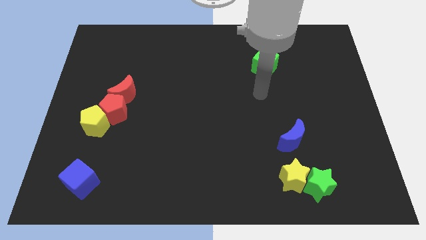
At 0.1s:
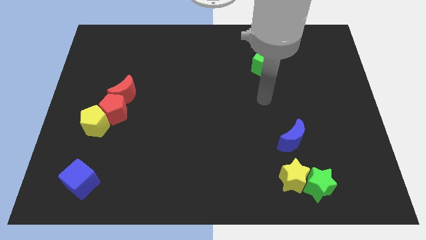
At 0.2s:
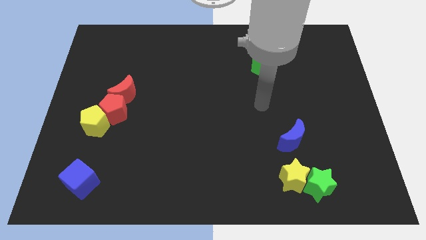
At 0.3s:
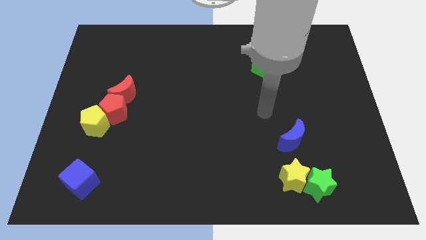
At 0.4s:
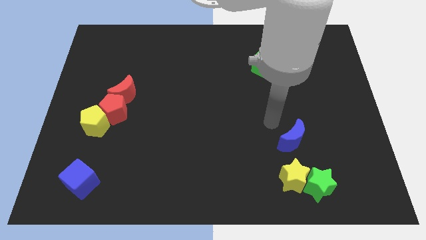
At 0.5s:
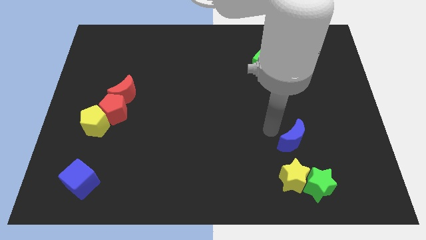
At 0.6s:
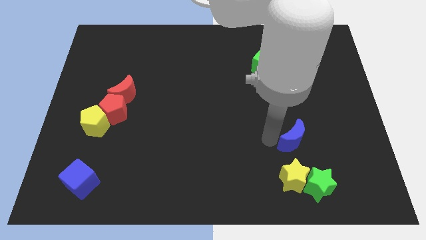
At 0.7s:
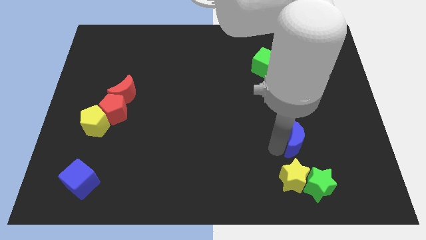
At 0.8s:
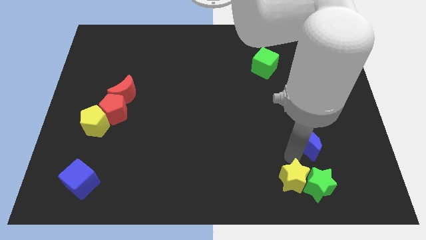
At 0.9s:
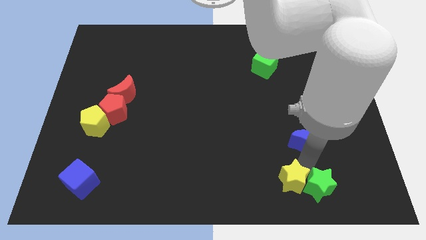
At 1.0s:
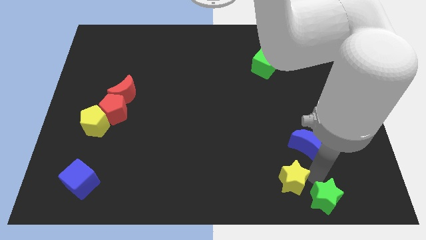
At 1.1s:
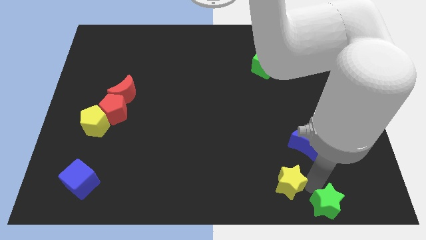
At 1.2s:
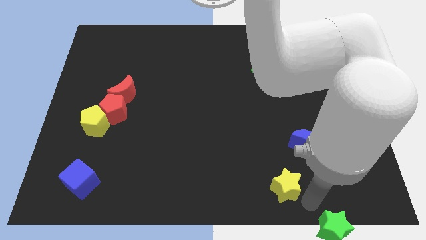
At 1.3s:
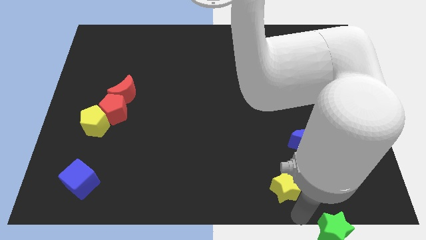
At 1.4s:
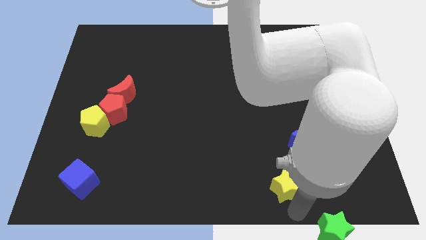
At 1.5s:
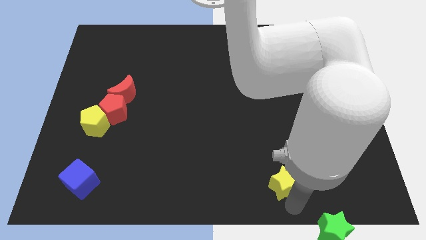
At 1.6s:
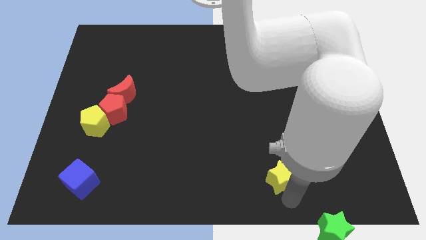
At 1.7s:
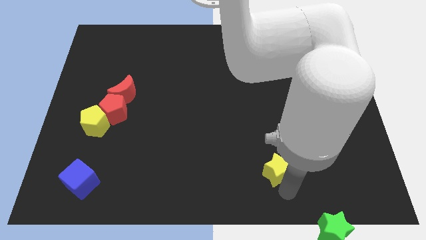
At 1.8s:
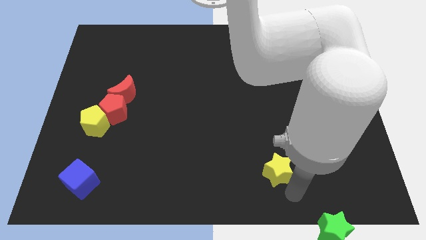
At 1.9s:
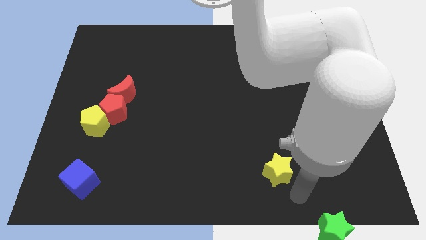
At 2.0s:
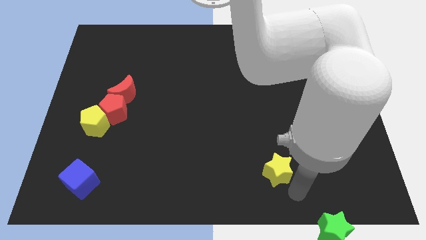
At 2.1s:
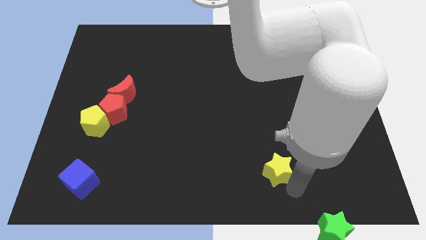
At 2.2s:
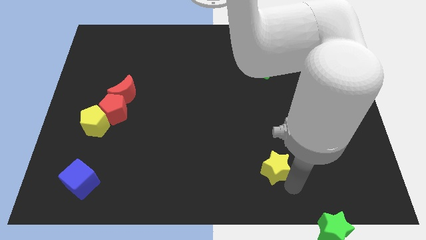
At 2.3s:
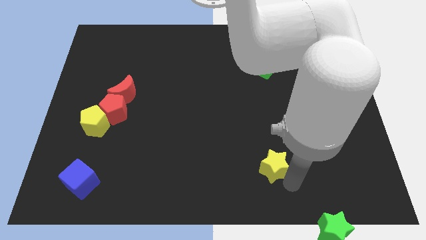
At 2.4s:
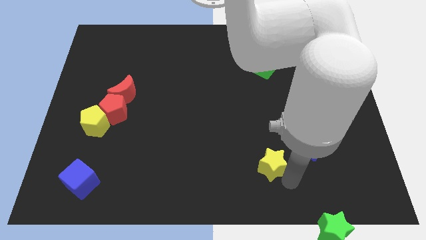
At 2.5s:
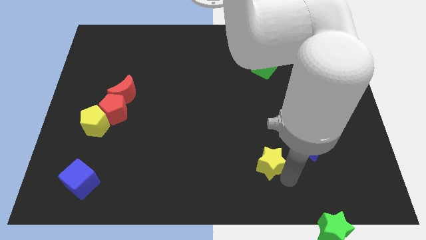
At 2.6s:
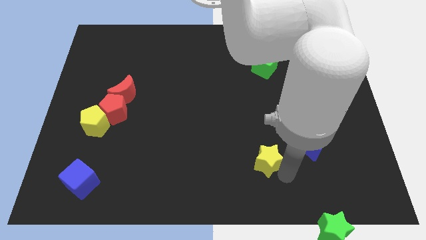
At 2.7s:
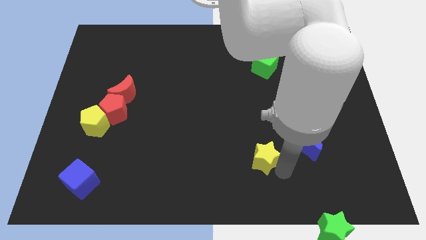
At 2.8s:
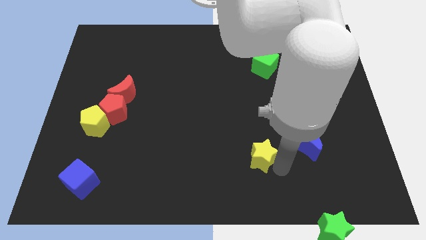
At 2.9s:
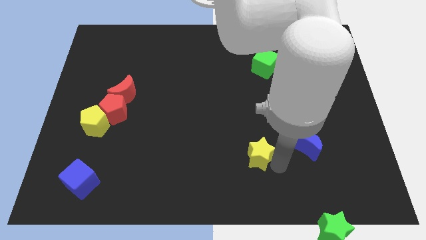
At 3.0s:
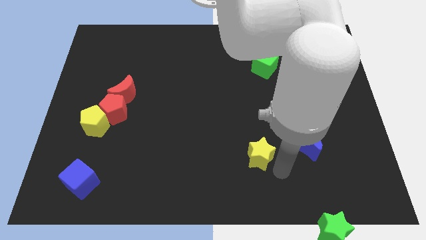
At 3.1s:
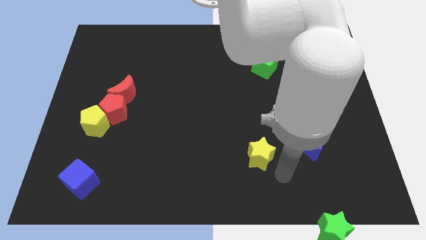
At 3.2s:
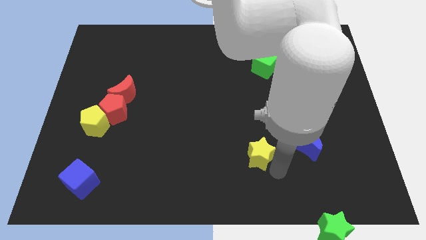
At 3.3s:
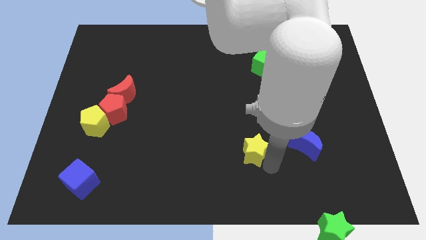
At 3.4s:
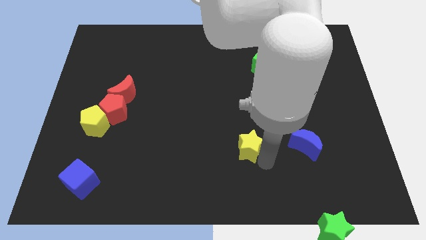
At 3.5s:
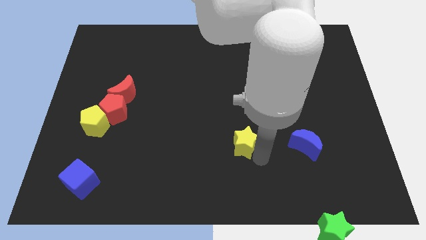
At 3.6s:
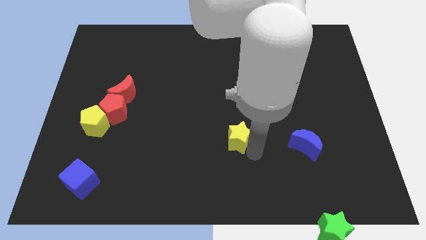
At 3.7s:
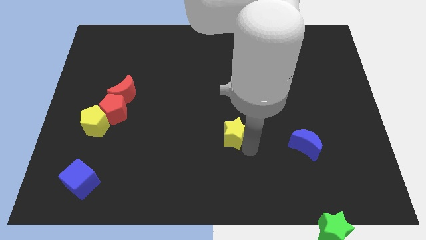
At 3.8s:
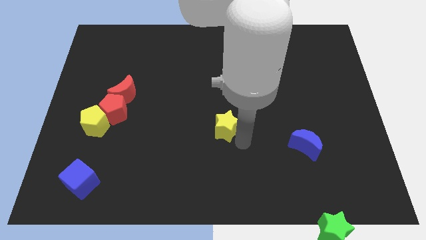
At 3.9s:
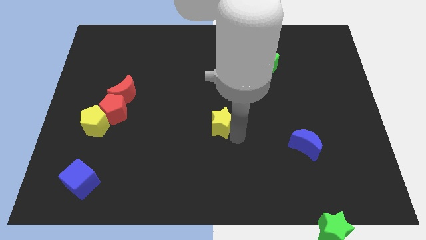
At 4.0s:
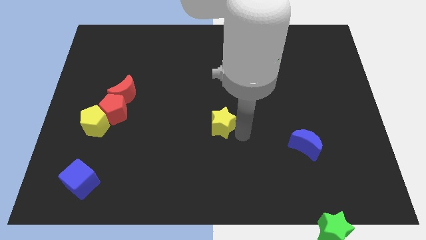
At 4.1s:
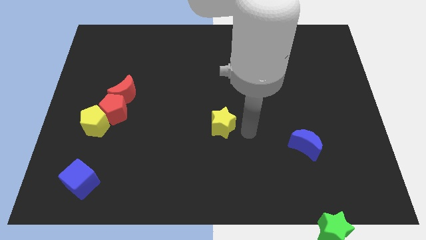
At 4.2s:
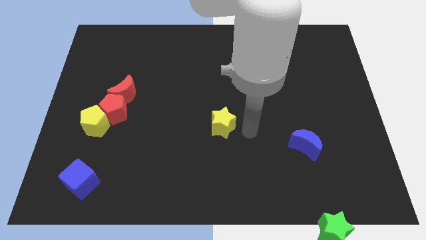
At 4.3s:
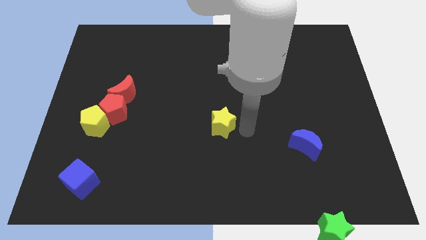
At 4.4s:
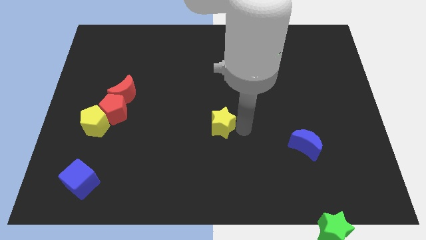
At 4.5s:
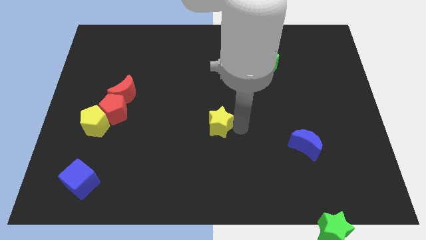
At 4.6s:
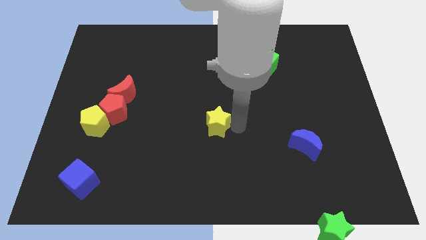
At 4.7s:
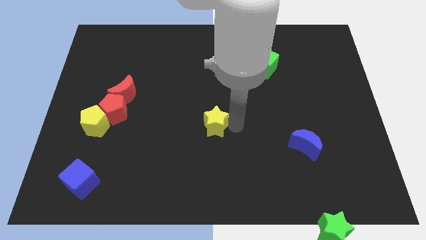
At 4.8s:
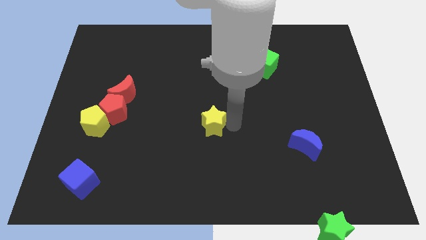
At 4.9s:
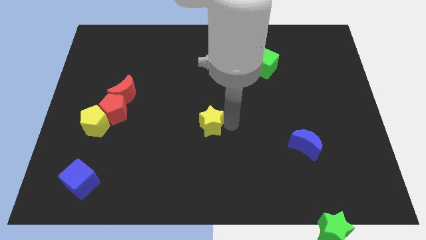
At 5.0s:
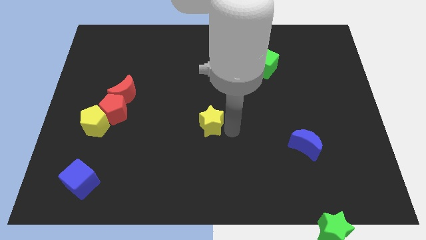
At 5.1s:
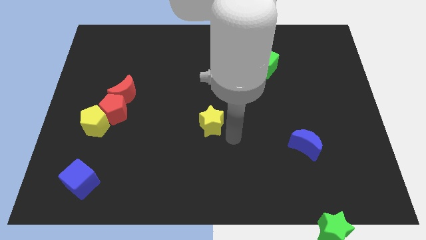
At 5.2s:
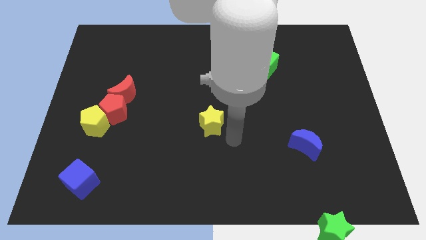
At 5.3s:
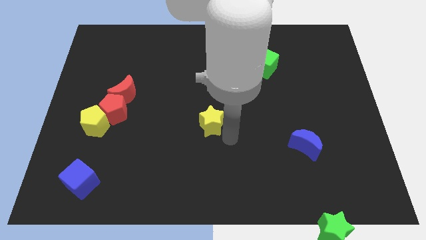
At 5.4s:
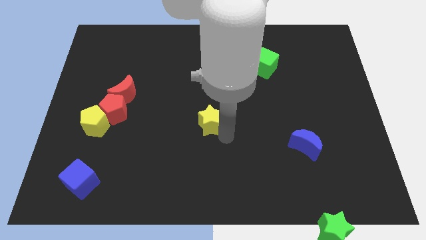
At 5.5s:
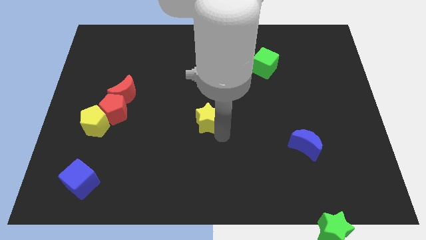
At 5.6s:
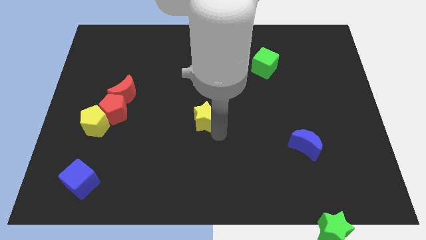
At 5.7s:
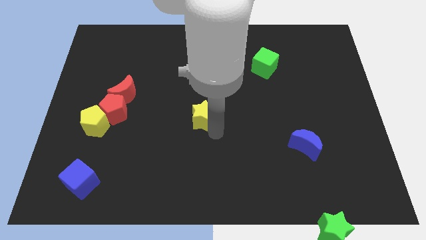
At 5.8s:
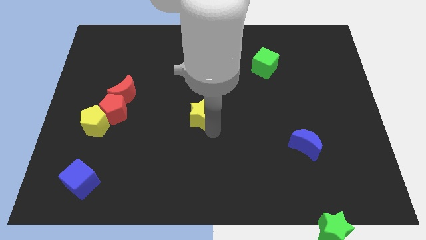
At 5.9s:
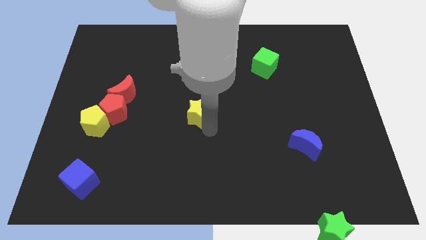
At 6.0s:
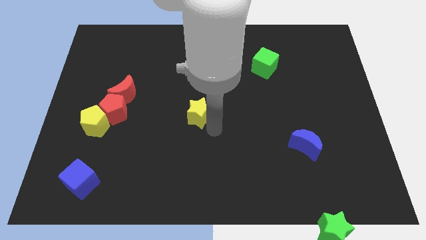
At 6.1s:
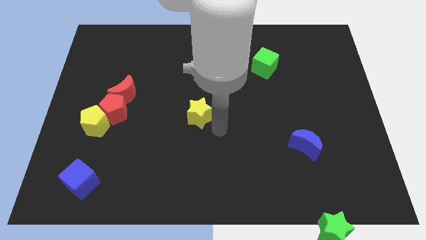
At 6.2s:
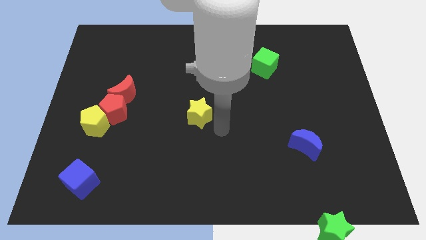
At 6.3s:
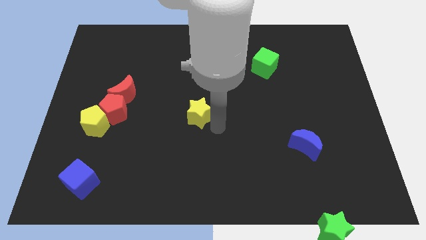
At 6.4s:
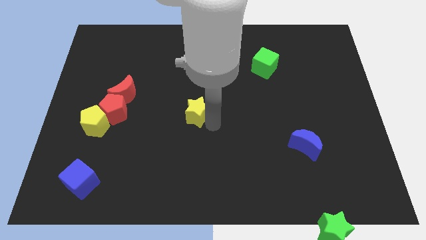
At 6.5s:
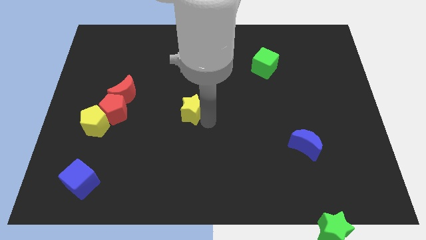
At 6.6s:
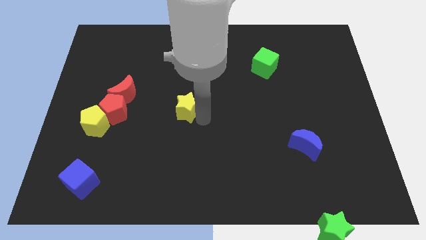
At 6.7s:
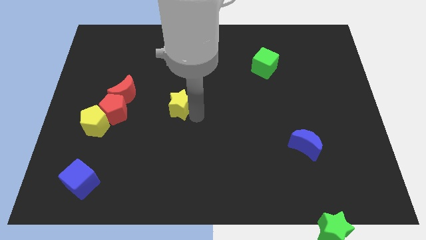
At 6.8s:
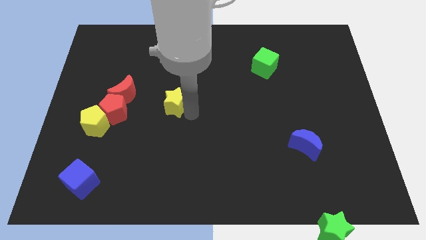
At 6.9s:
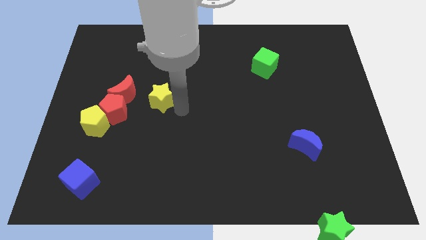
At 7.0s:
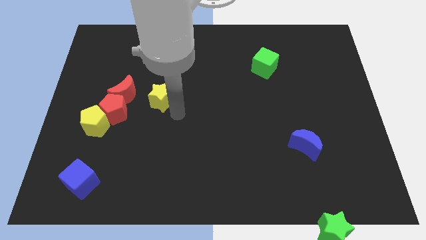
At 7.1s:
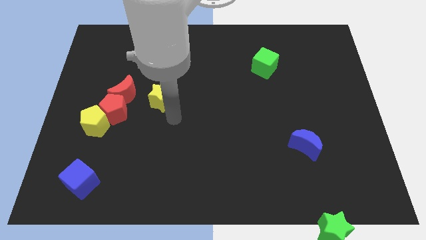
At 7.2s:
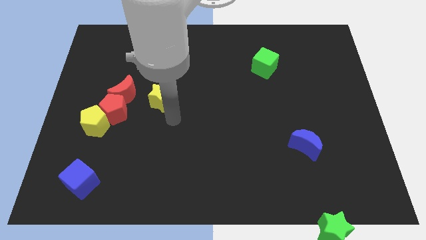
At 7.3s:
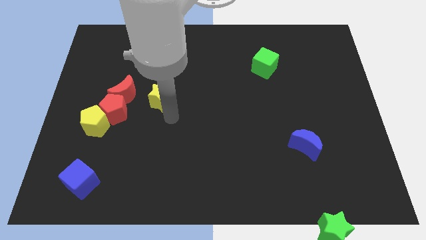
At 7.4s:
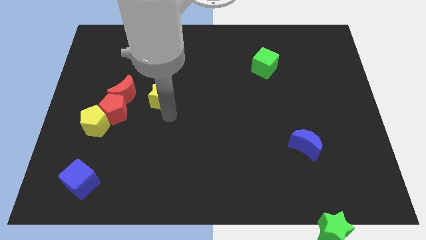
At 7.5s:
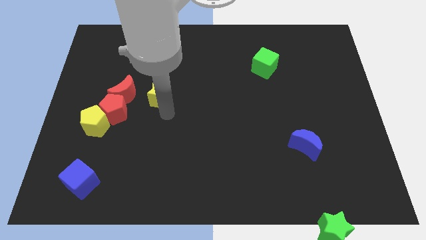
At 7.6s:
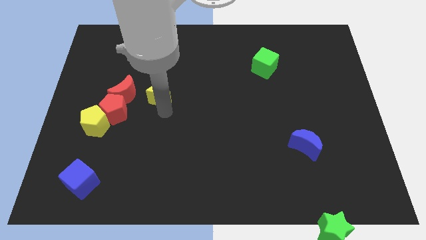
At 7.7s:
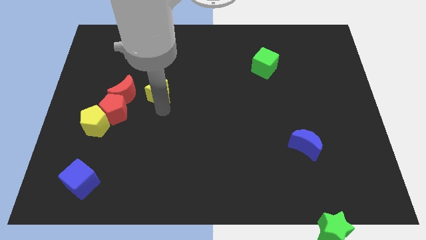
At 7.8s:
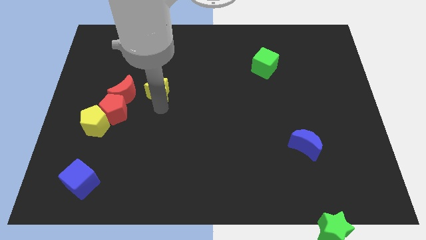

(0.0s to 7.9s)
slide the yellow star to the top right of the red moon
